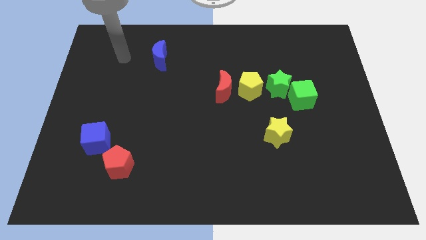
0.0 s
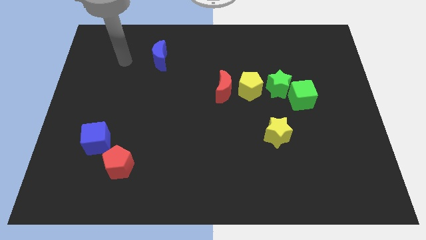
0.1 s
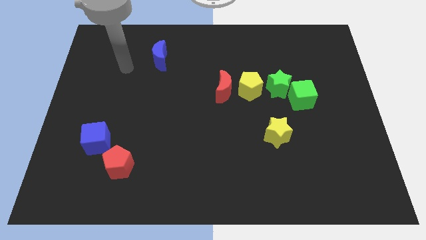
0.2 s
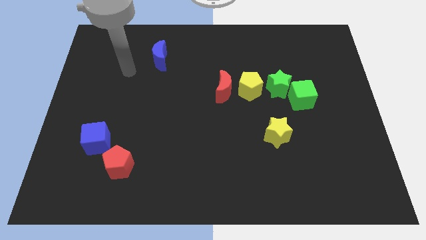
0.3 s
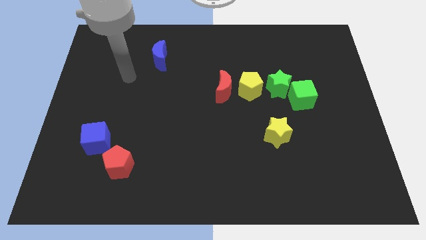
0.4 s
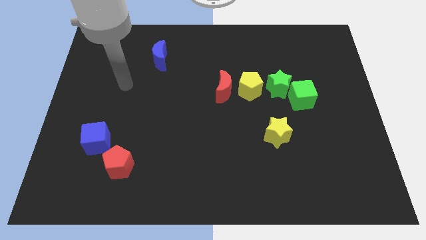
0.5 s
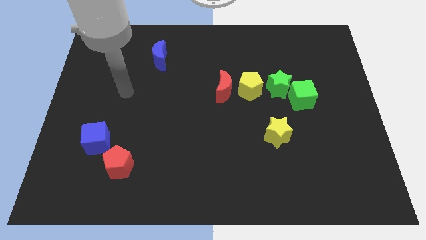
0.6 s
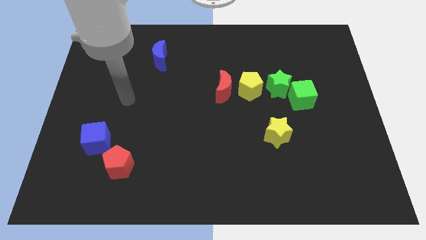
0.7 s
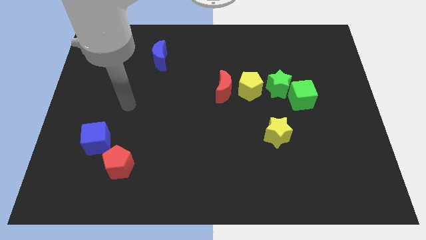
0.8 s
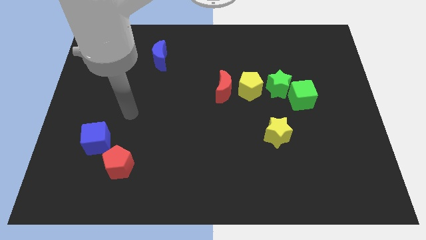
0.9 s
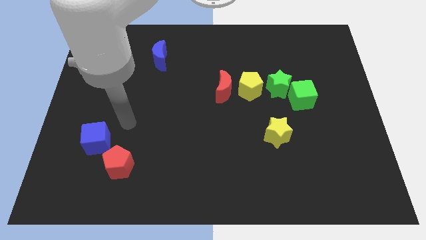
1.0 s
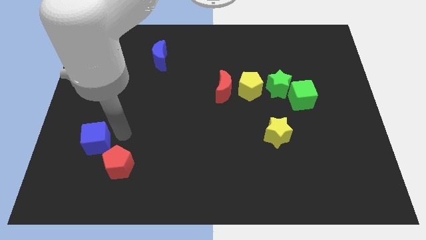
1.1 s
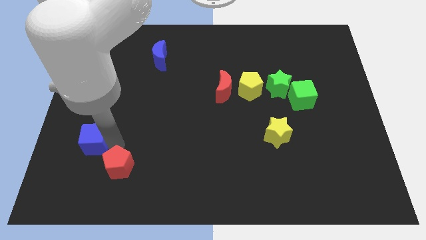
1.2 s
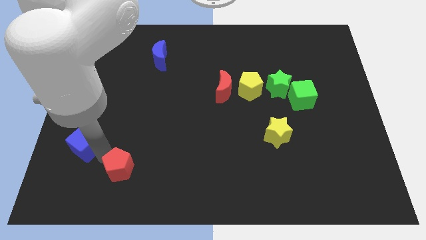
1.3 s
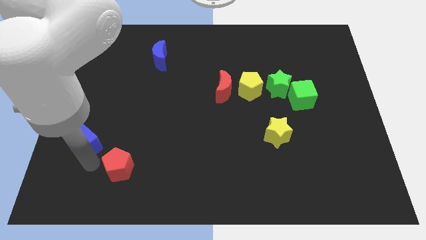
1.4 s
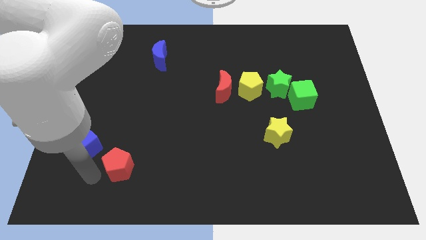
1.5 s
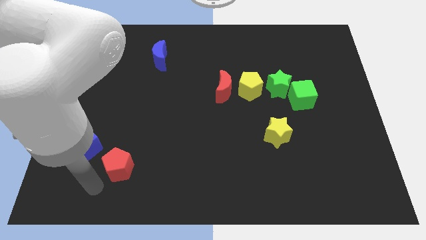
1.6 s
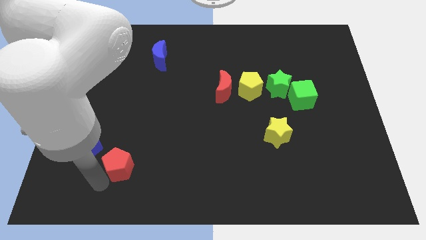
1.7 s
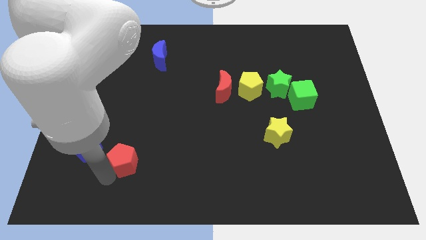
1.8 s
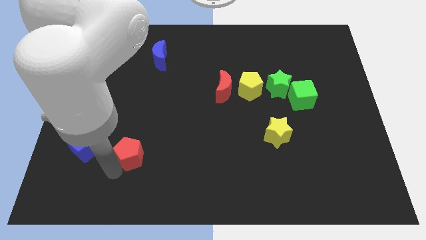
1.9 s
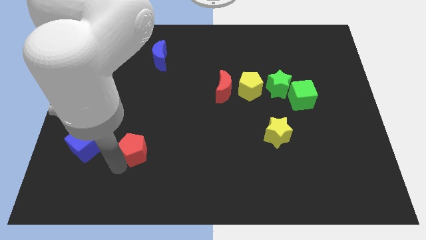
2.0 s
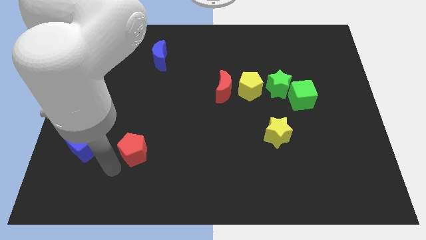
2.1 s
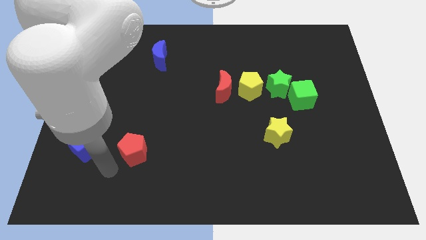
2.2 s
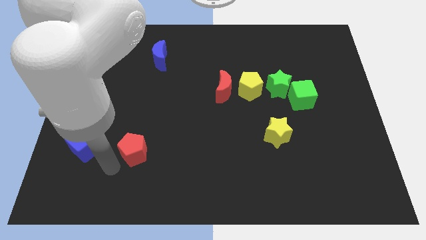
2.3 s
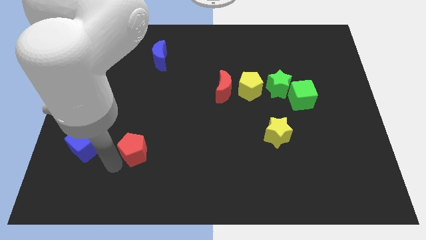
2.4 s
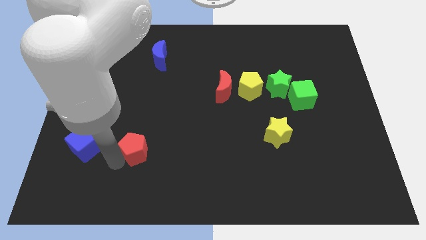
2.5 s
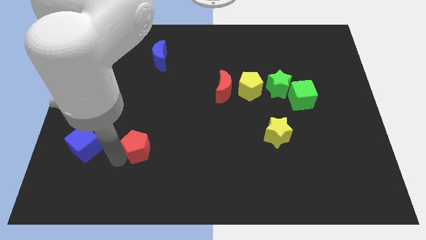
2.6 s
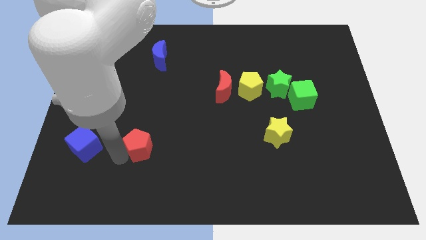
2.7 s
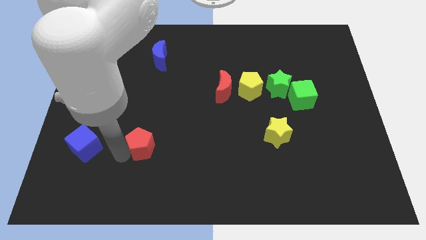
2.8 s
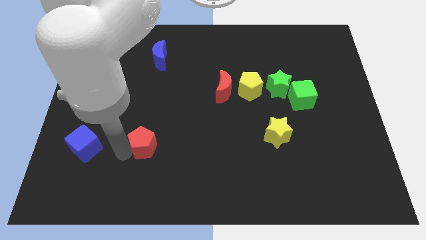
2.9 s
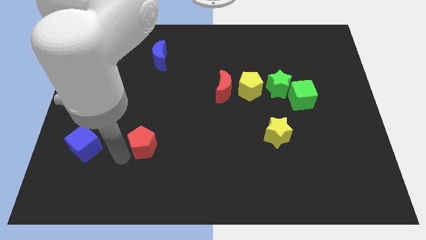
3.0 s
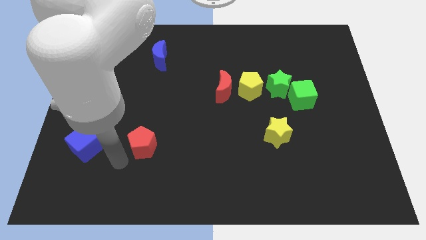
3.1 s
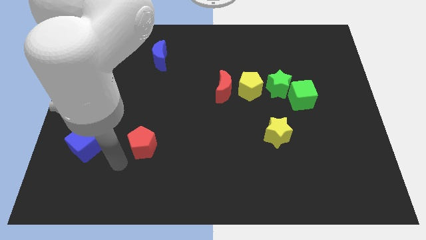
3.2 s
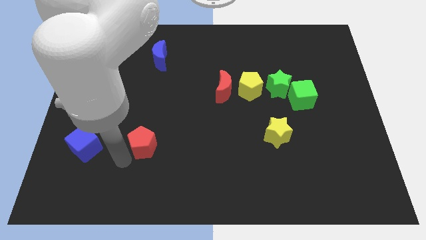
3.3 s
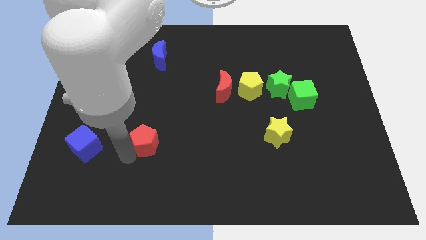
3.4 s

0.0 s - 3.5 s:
slide the red pentagon upwards and to the right slightly

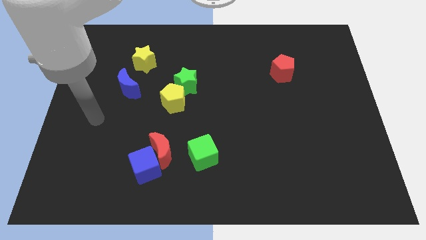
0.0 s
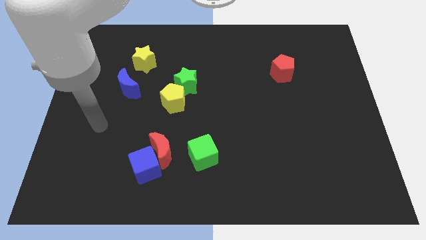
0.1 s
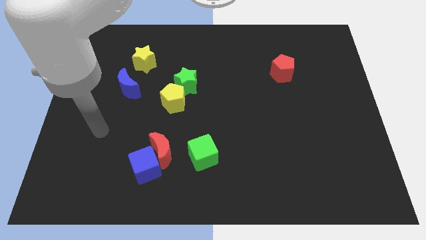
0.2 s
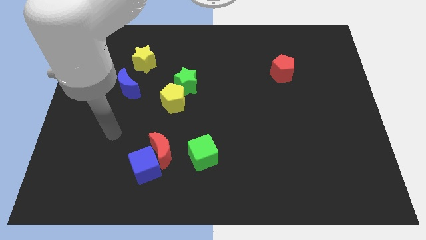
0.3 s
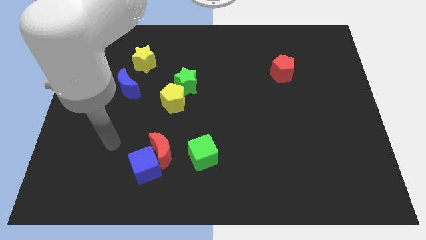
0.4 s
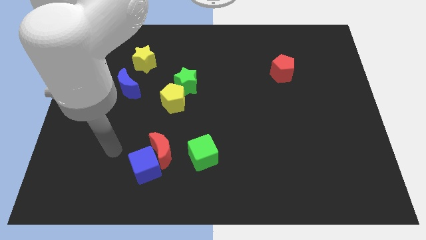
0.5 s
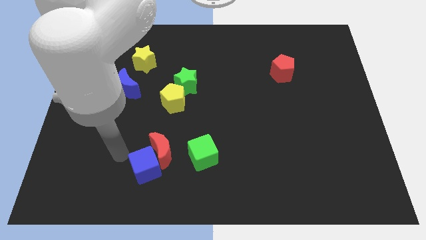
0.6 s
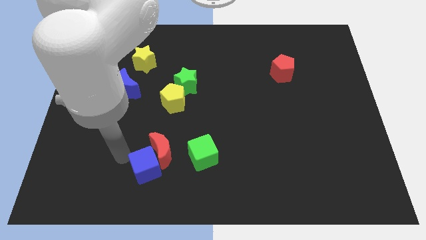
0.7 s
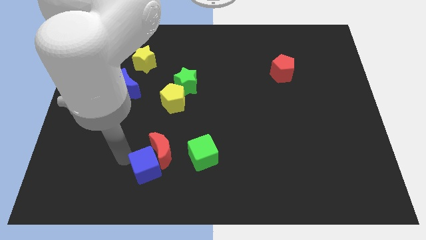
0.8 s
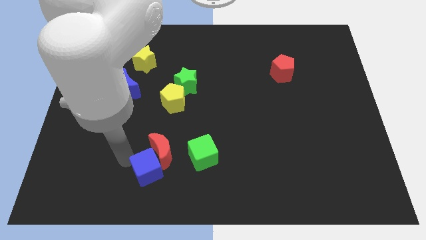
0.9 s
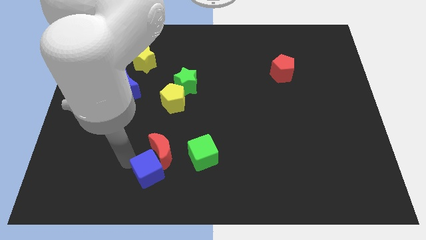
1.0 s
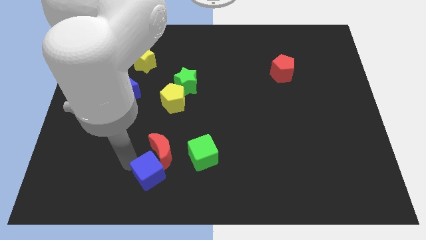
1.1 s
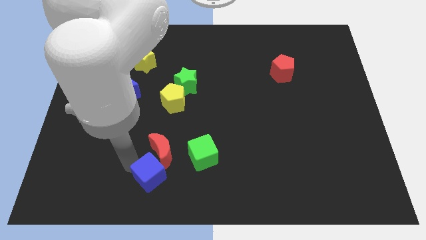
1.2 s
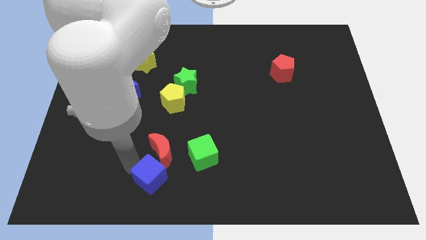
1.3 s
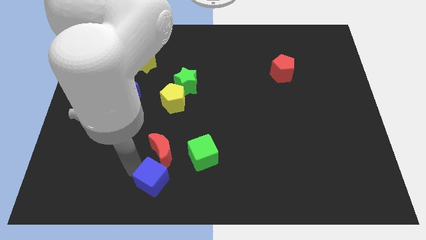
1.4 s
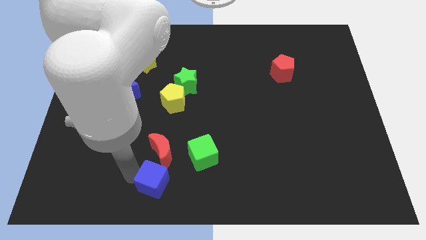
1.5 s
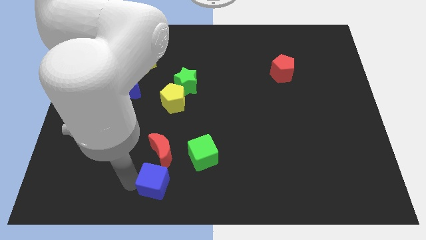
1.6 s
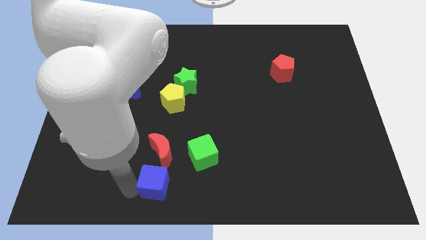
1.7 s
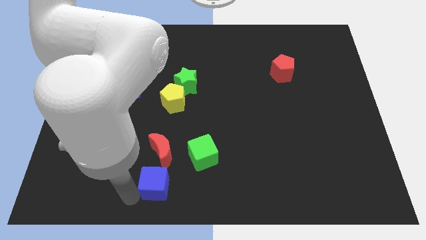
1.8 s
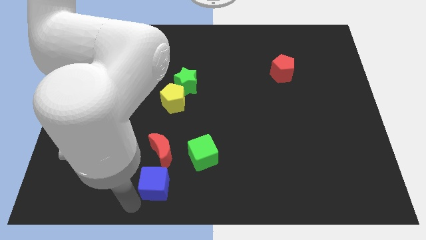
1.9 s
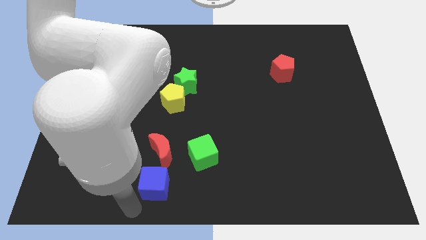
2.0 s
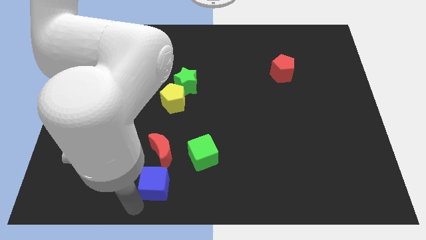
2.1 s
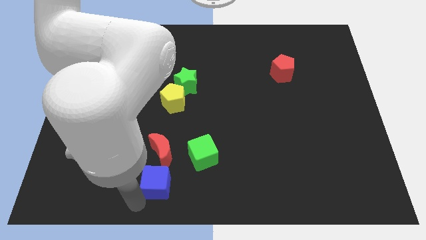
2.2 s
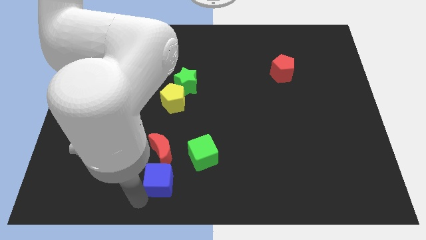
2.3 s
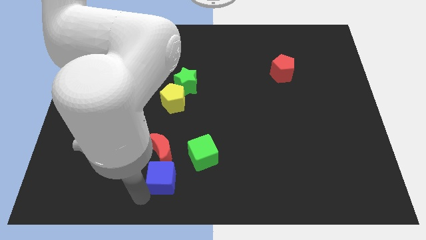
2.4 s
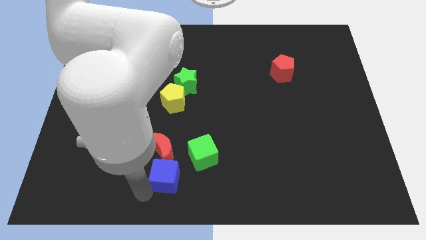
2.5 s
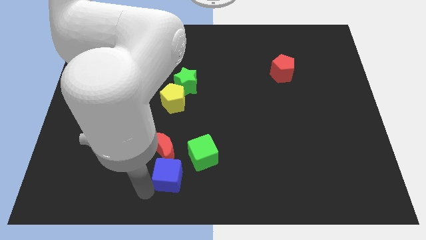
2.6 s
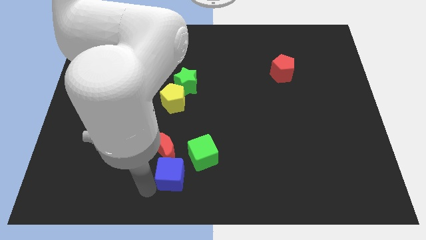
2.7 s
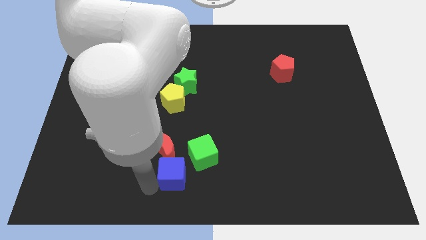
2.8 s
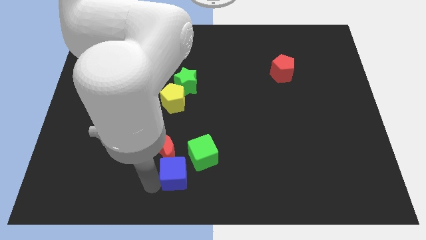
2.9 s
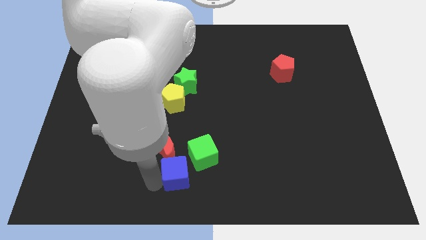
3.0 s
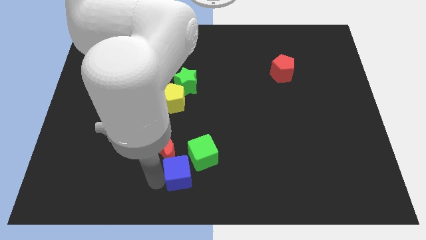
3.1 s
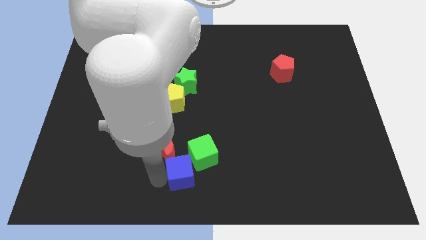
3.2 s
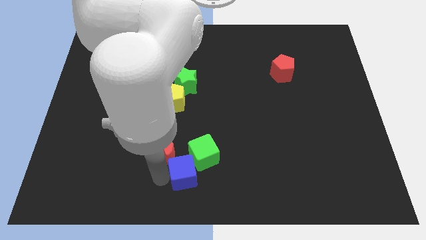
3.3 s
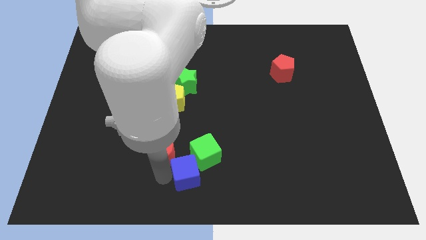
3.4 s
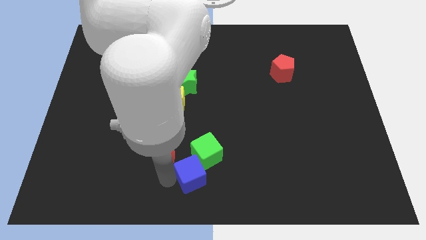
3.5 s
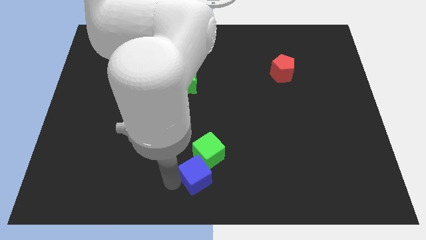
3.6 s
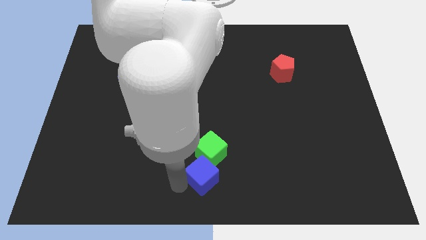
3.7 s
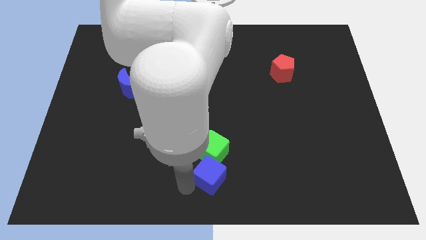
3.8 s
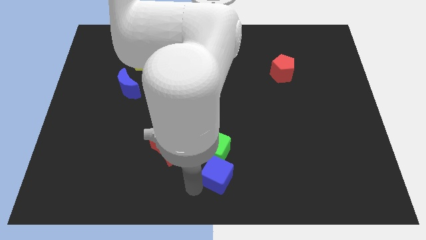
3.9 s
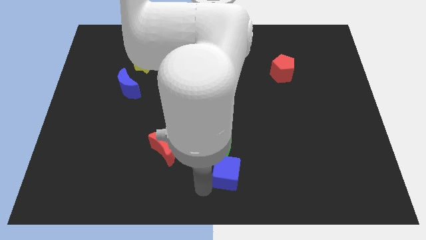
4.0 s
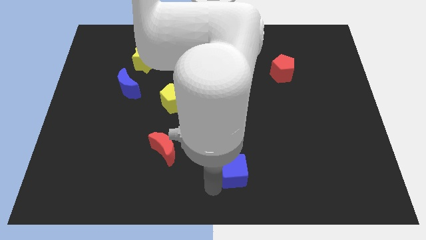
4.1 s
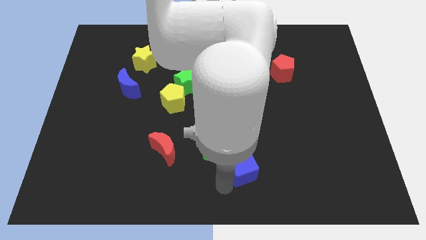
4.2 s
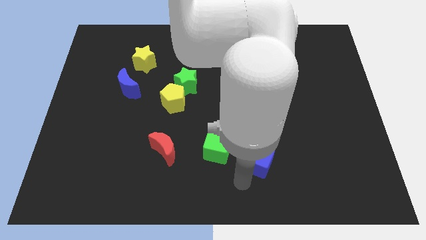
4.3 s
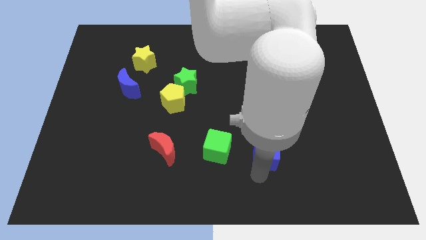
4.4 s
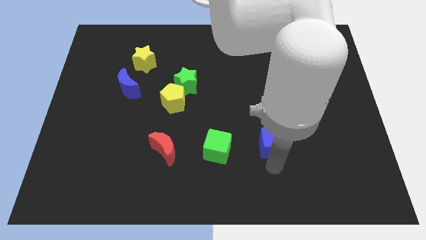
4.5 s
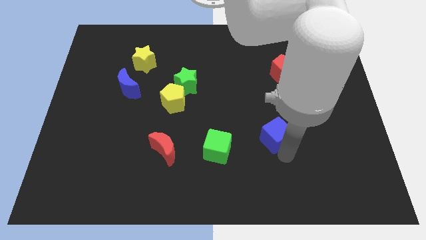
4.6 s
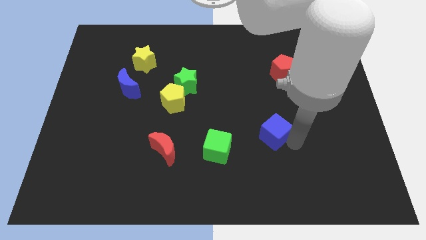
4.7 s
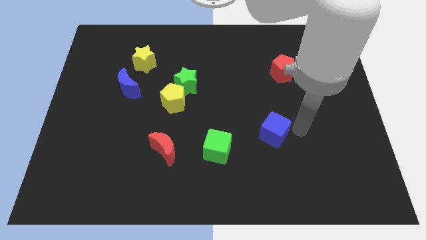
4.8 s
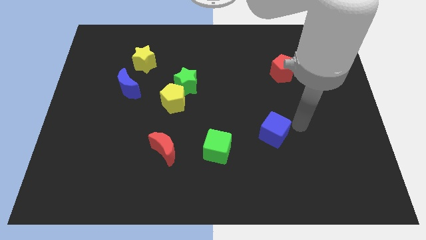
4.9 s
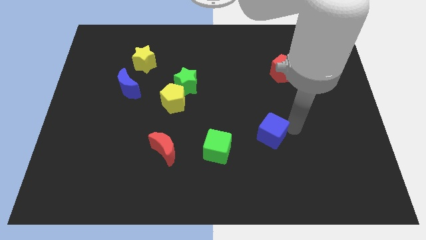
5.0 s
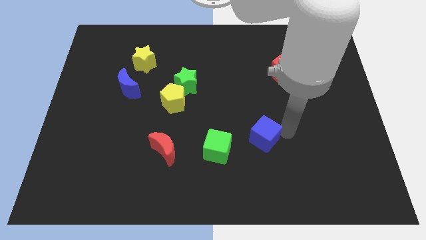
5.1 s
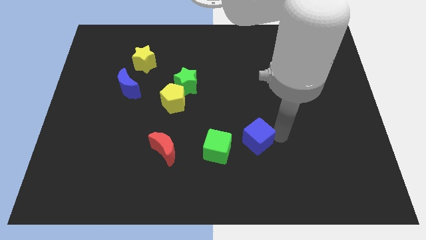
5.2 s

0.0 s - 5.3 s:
push the blue cube a little bit up and to the right
